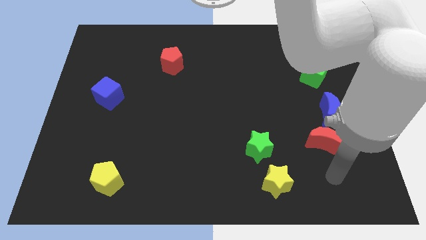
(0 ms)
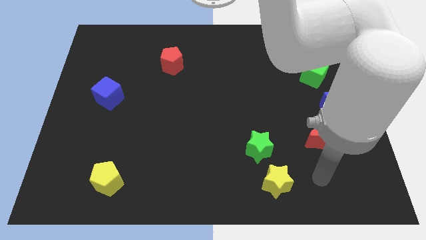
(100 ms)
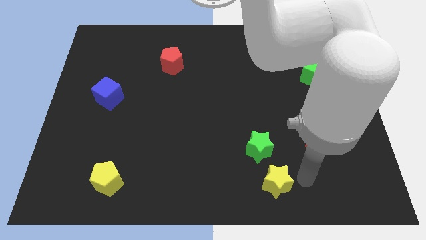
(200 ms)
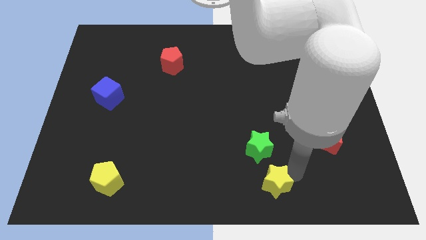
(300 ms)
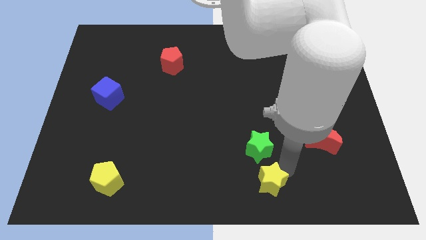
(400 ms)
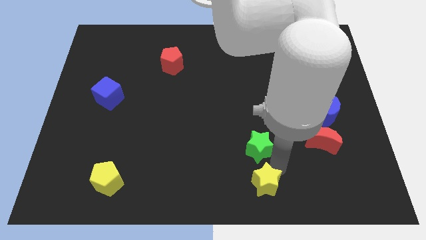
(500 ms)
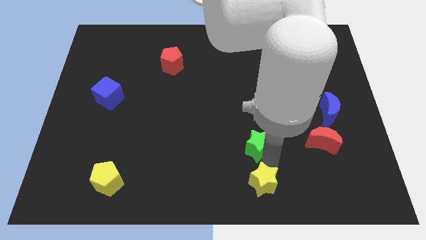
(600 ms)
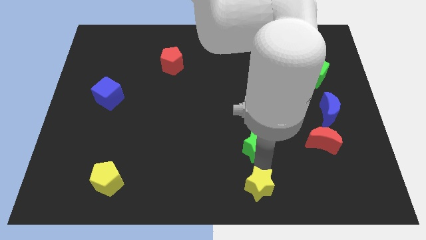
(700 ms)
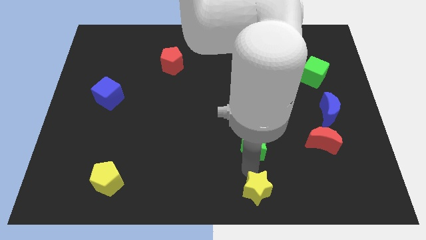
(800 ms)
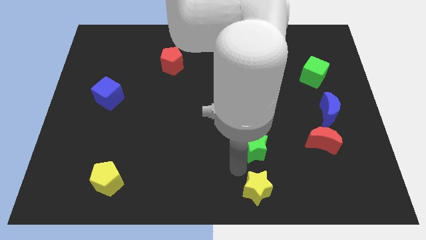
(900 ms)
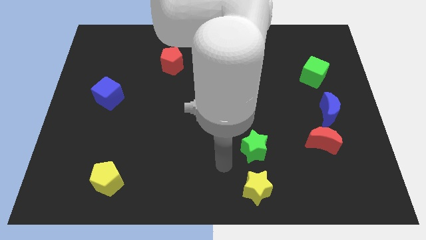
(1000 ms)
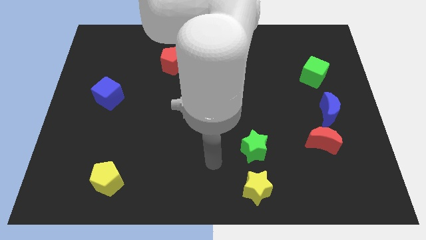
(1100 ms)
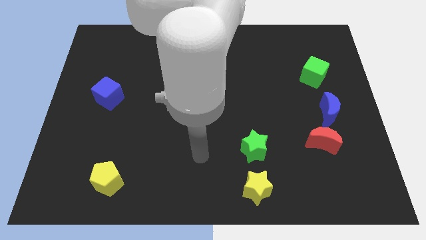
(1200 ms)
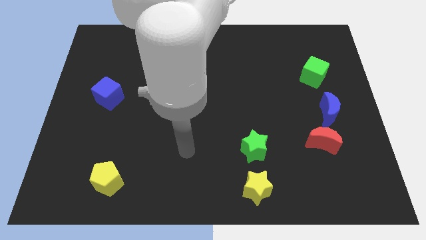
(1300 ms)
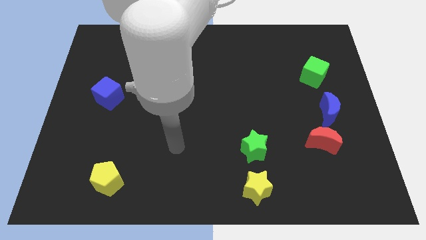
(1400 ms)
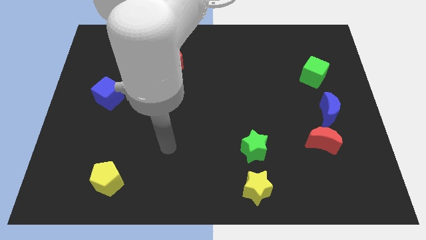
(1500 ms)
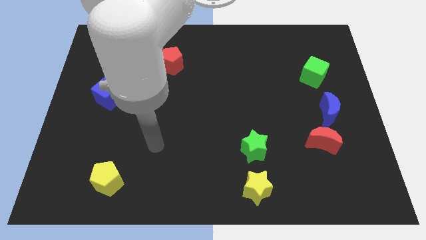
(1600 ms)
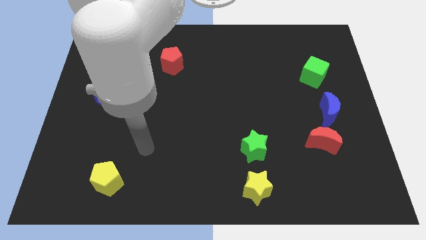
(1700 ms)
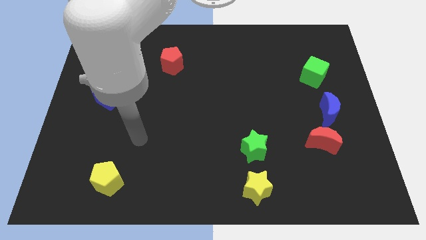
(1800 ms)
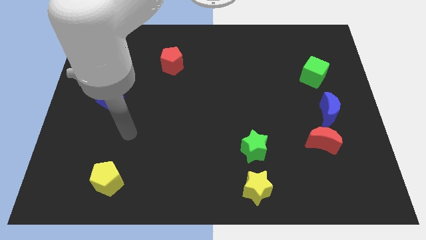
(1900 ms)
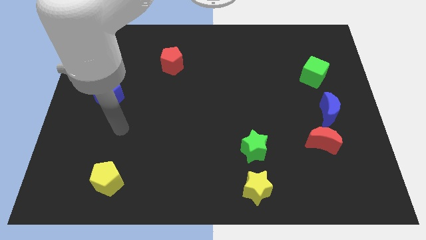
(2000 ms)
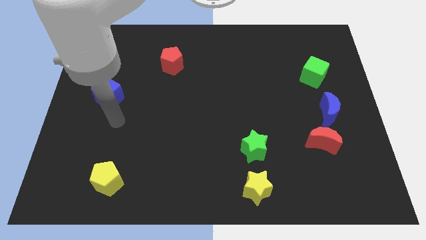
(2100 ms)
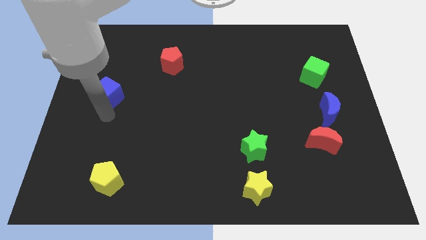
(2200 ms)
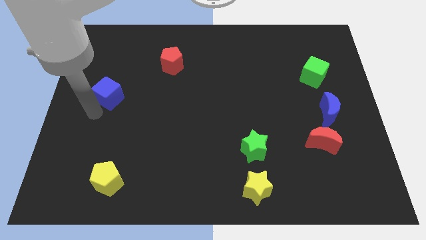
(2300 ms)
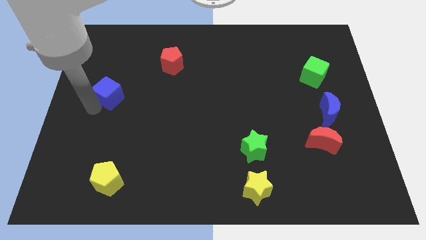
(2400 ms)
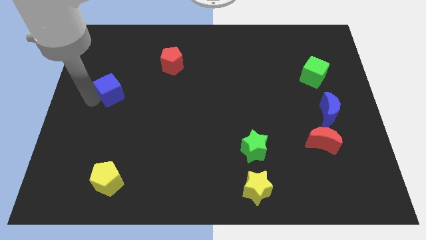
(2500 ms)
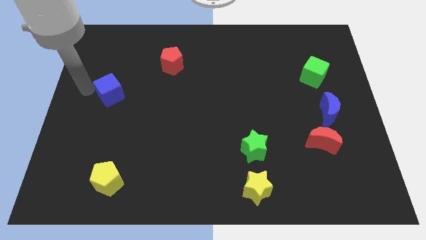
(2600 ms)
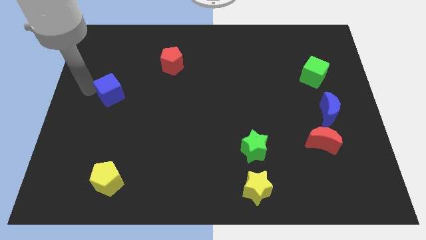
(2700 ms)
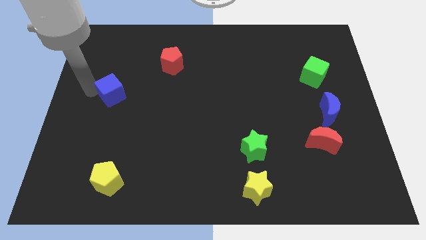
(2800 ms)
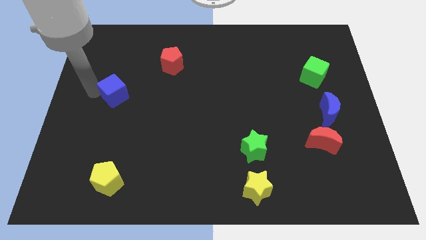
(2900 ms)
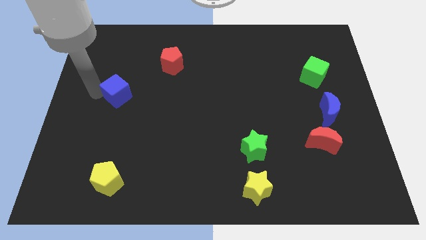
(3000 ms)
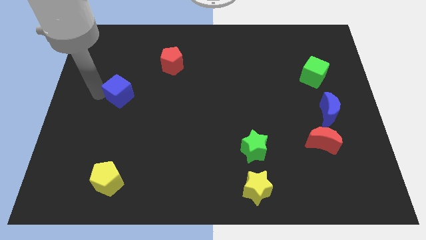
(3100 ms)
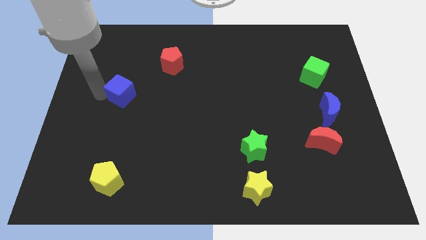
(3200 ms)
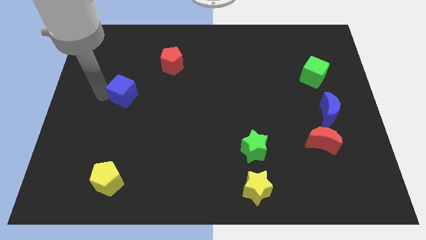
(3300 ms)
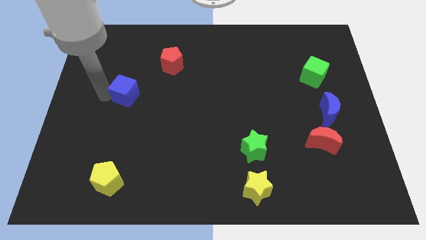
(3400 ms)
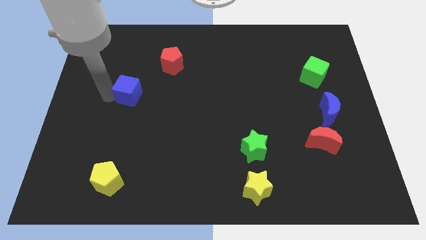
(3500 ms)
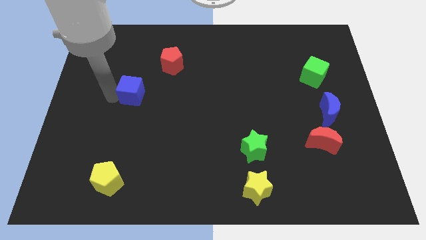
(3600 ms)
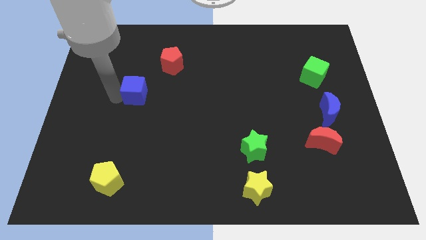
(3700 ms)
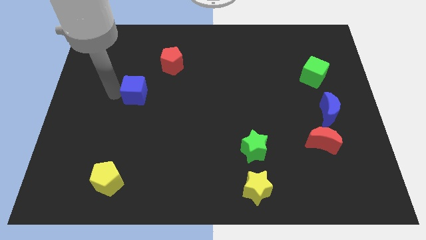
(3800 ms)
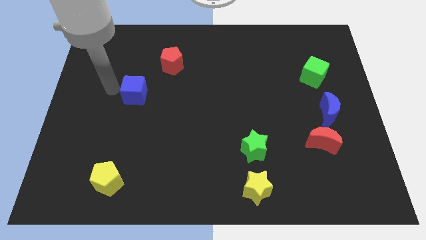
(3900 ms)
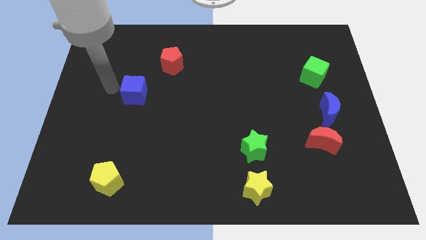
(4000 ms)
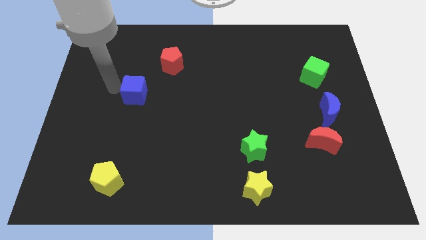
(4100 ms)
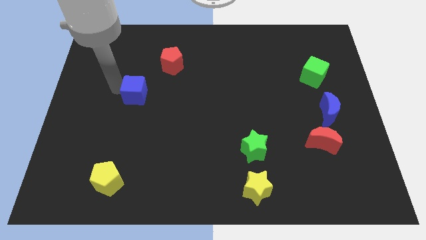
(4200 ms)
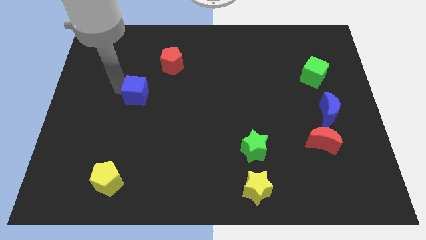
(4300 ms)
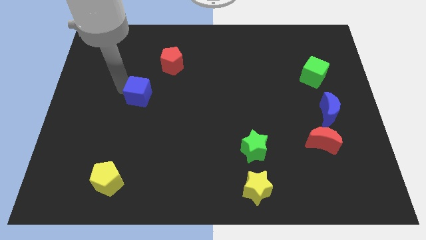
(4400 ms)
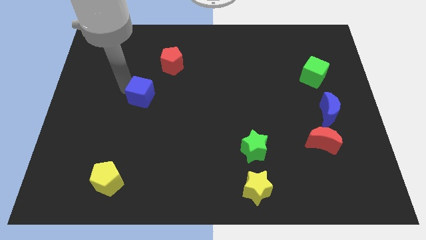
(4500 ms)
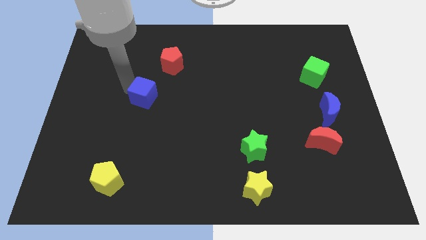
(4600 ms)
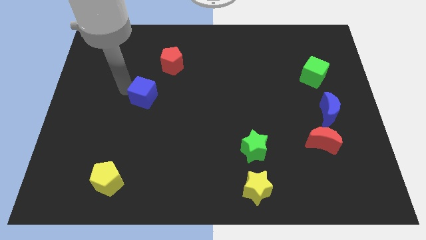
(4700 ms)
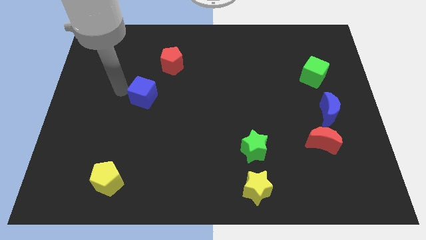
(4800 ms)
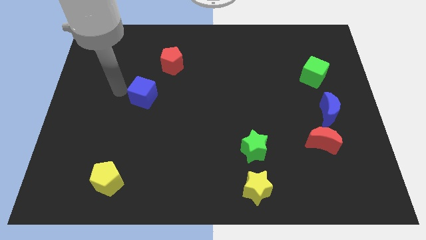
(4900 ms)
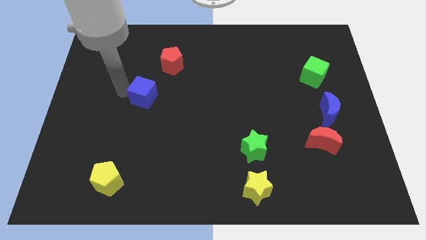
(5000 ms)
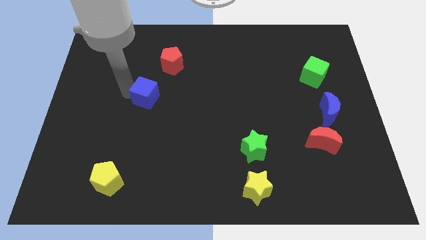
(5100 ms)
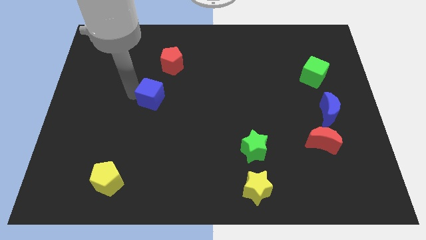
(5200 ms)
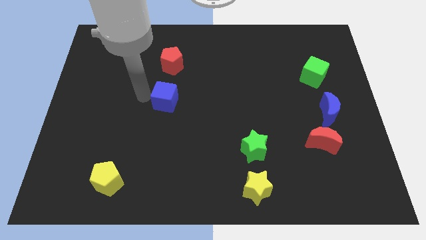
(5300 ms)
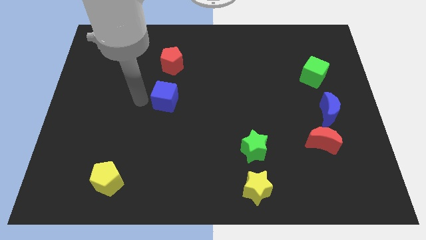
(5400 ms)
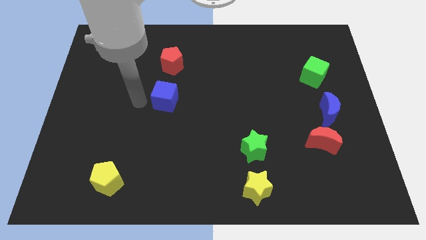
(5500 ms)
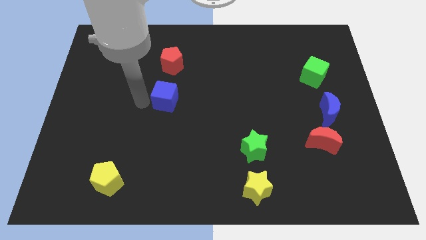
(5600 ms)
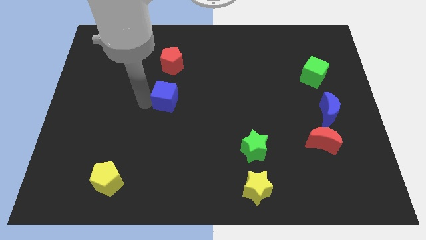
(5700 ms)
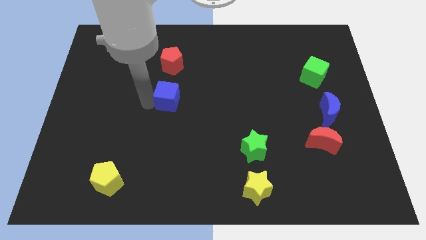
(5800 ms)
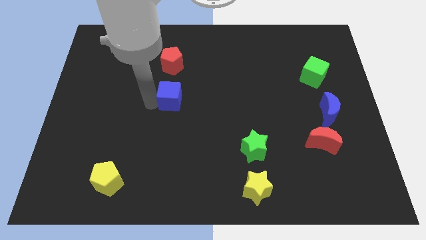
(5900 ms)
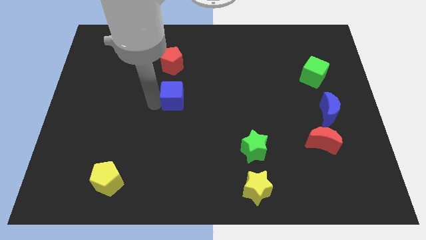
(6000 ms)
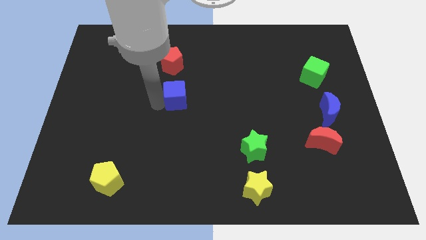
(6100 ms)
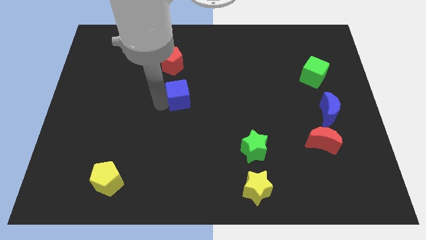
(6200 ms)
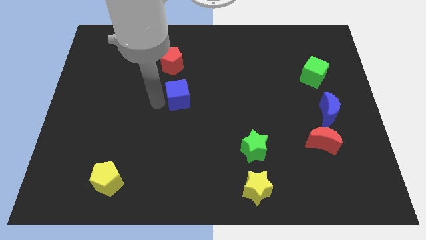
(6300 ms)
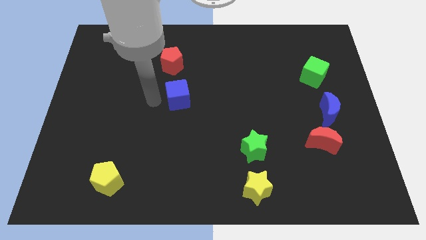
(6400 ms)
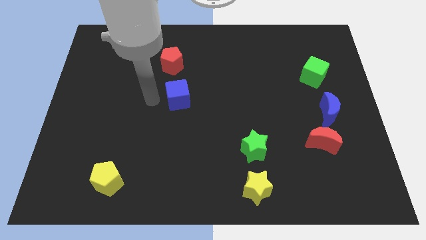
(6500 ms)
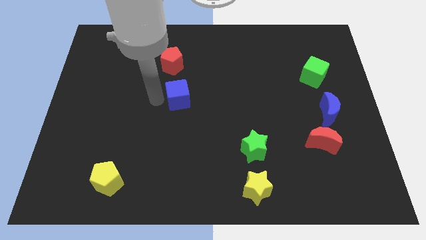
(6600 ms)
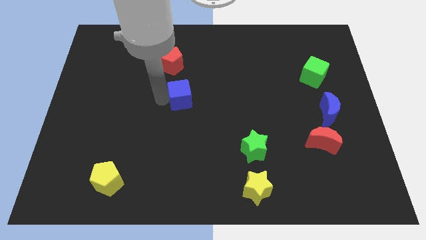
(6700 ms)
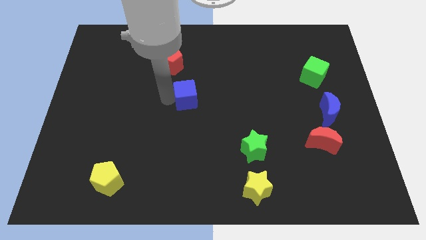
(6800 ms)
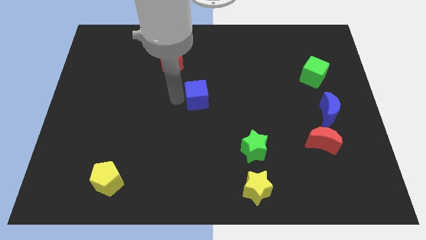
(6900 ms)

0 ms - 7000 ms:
move the blue cube to the right

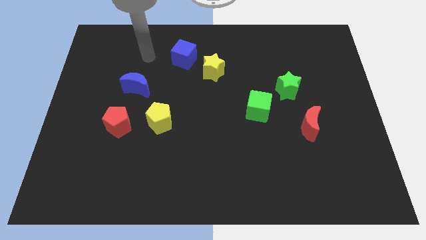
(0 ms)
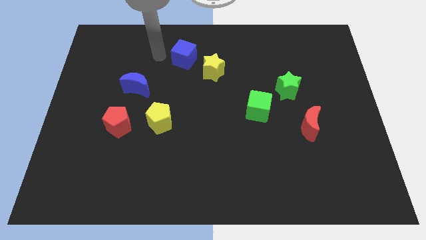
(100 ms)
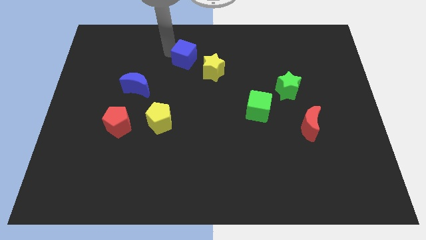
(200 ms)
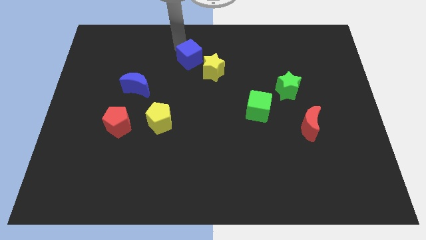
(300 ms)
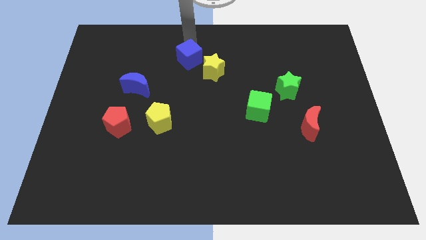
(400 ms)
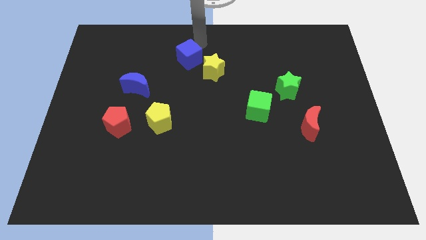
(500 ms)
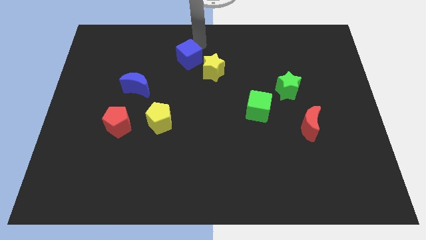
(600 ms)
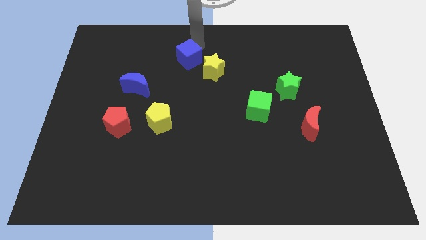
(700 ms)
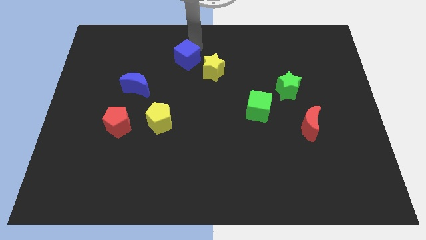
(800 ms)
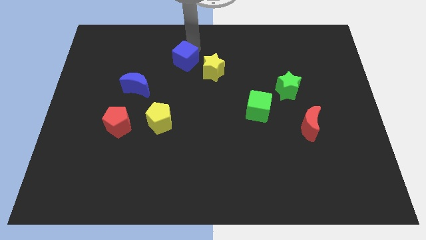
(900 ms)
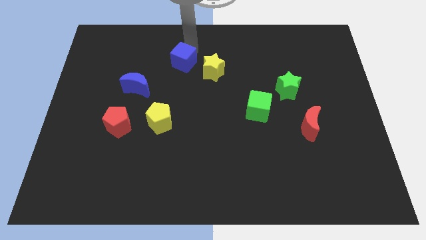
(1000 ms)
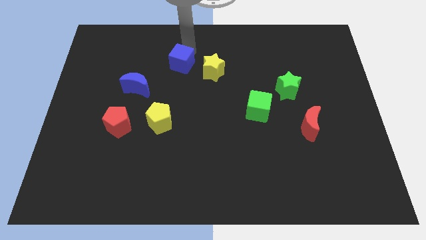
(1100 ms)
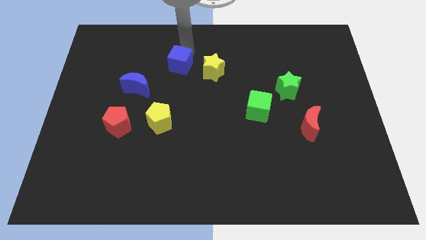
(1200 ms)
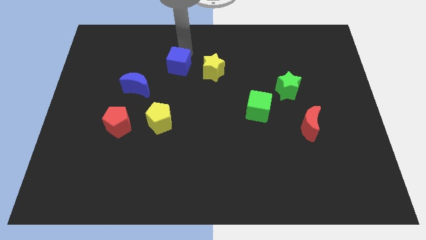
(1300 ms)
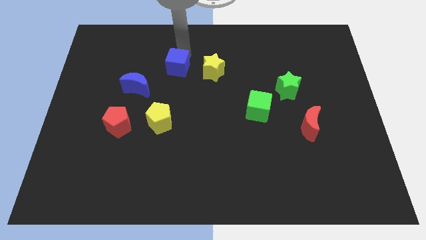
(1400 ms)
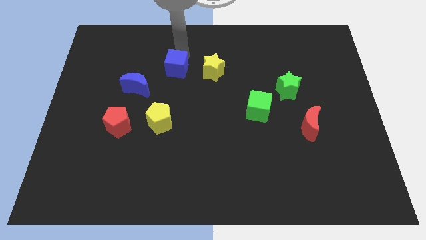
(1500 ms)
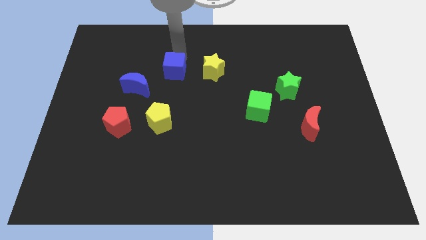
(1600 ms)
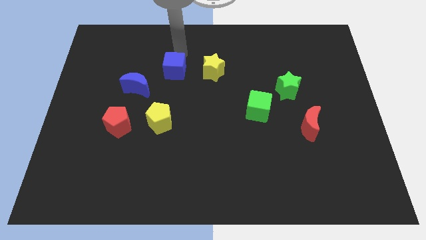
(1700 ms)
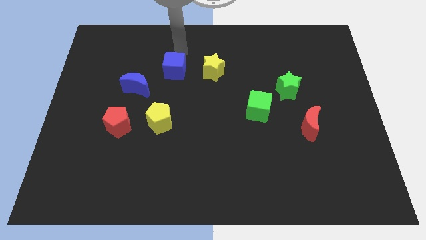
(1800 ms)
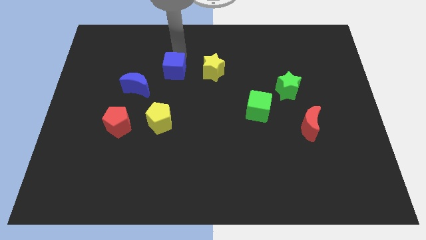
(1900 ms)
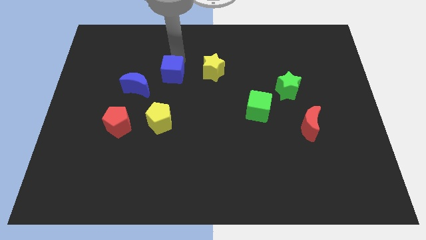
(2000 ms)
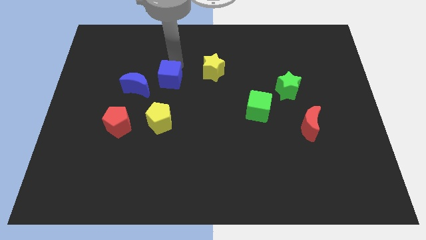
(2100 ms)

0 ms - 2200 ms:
slightly slide the blue cube down and to the left diagonally
